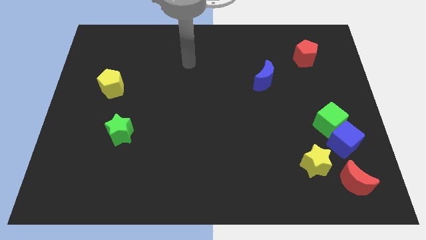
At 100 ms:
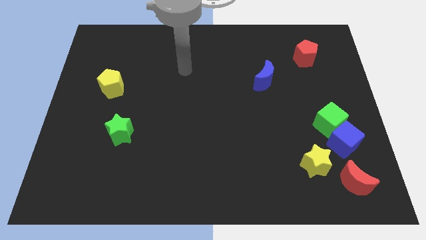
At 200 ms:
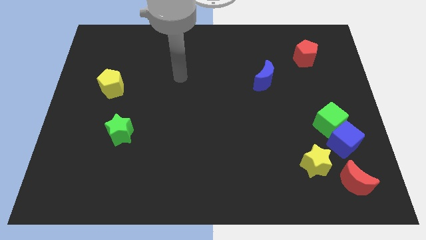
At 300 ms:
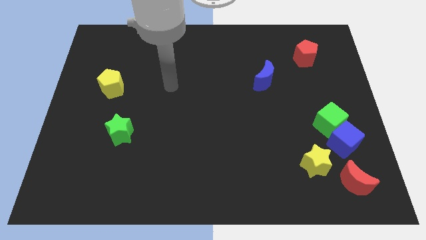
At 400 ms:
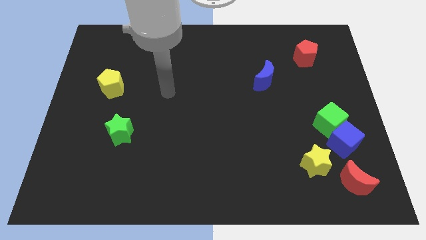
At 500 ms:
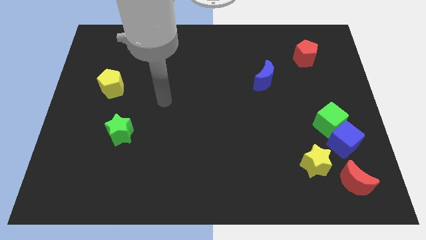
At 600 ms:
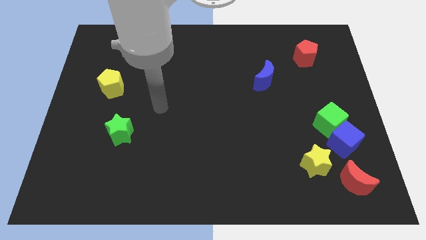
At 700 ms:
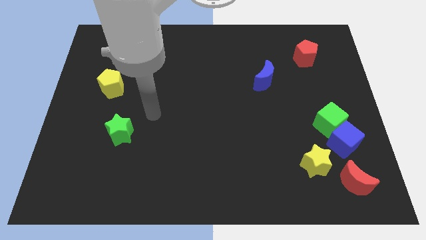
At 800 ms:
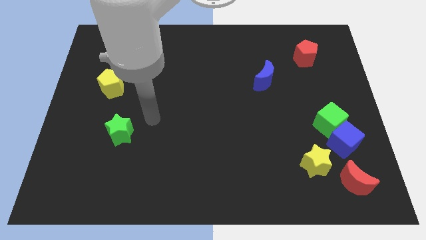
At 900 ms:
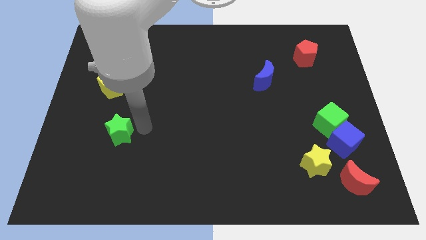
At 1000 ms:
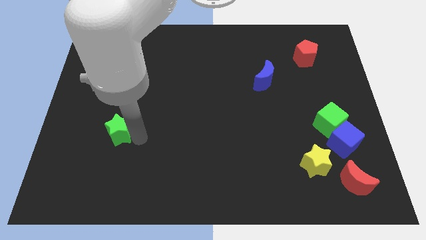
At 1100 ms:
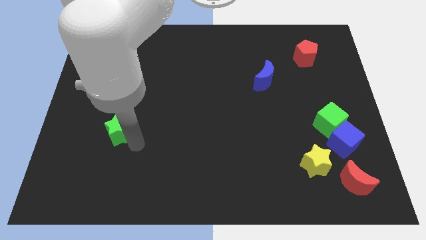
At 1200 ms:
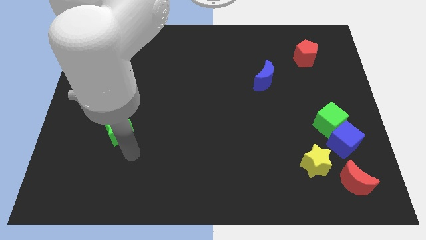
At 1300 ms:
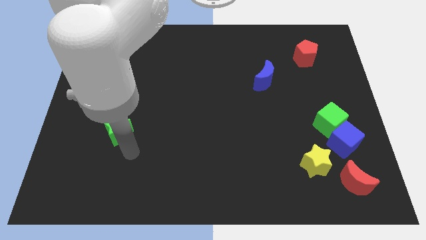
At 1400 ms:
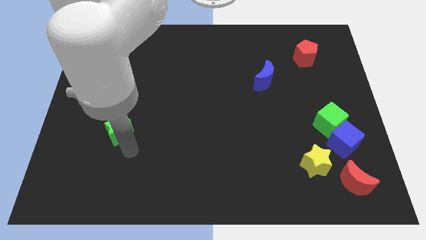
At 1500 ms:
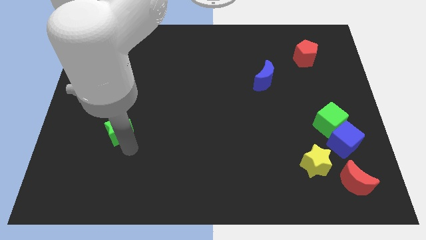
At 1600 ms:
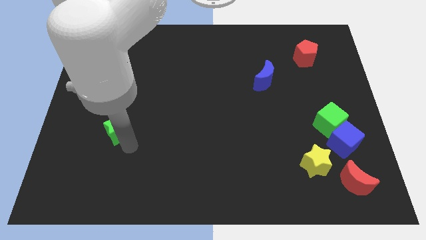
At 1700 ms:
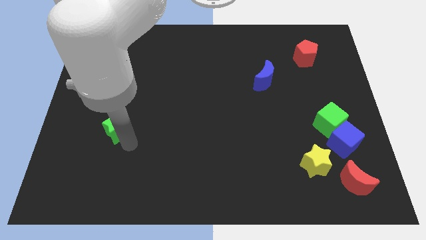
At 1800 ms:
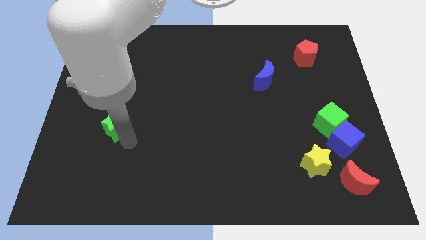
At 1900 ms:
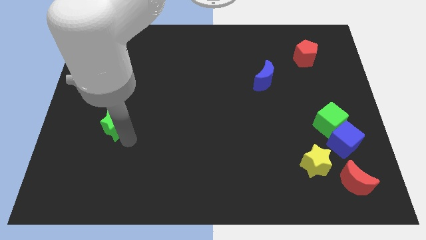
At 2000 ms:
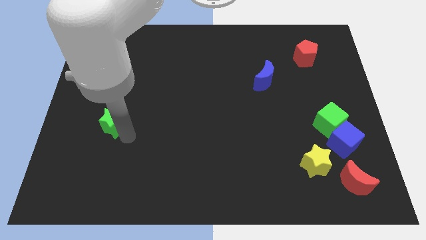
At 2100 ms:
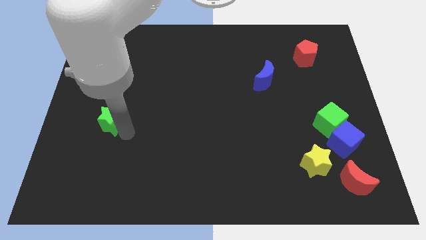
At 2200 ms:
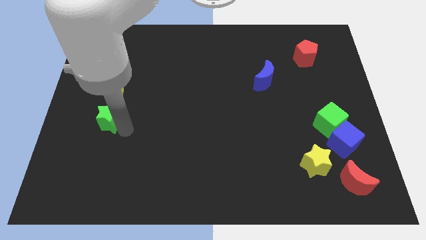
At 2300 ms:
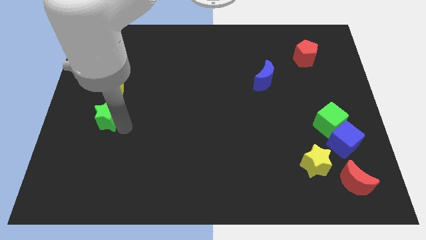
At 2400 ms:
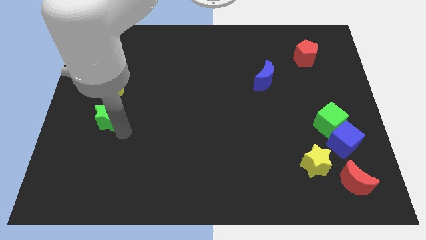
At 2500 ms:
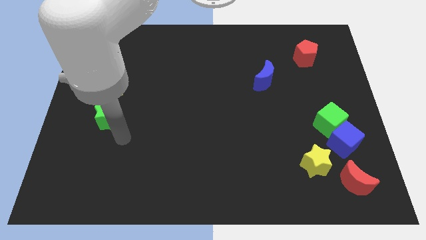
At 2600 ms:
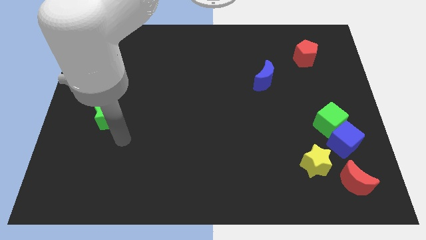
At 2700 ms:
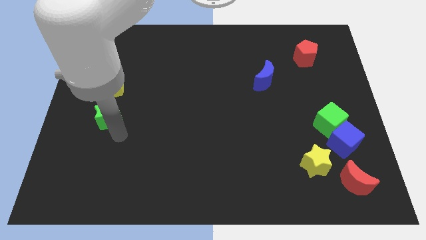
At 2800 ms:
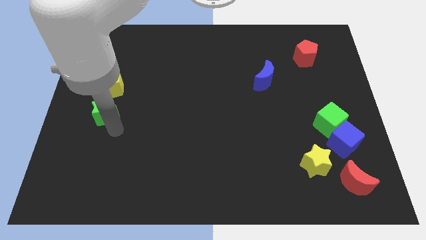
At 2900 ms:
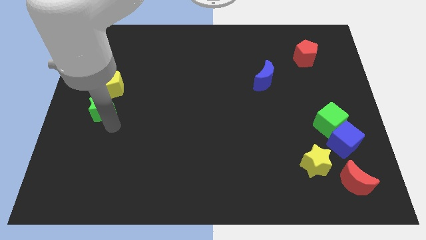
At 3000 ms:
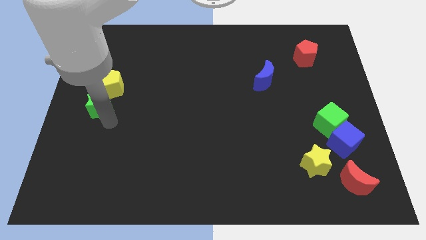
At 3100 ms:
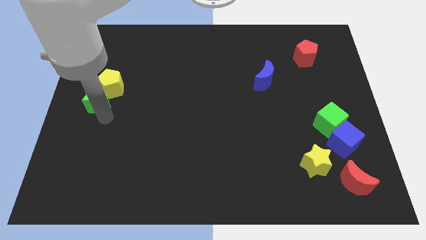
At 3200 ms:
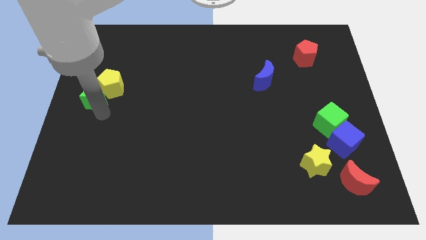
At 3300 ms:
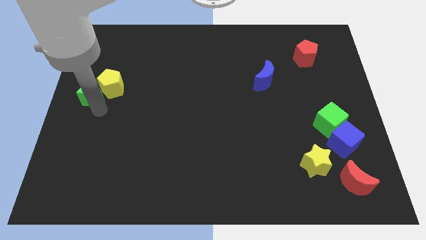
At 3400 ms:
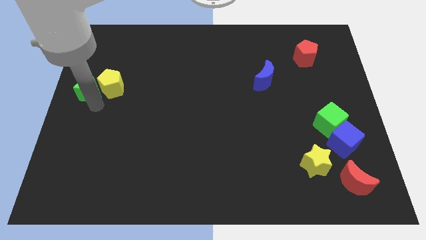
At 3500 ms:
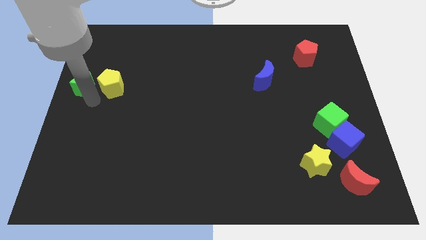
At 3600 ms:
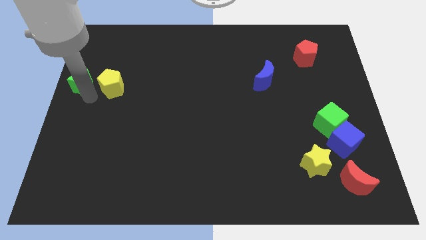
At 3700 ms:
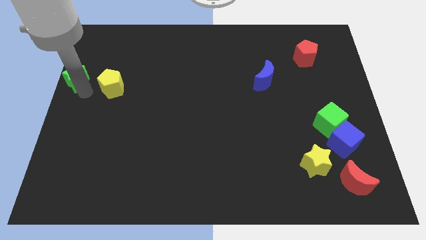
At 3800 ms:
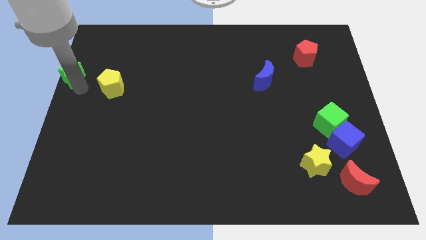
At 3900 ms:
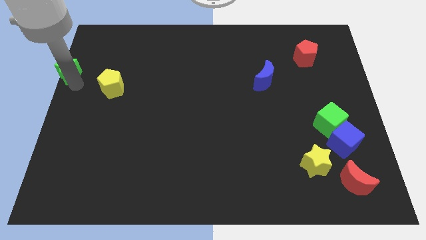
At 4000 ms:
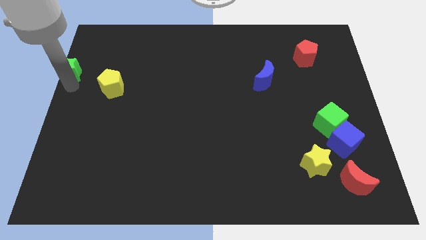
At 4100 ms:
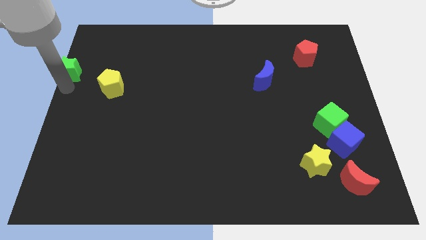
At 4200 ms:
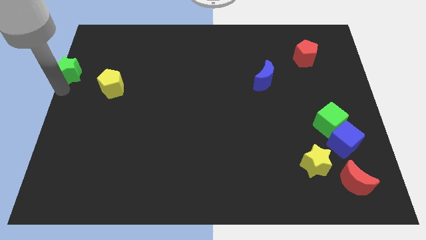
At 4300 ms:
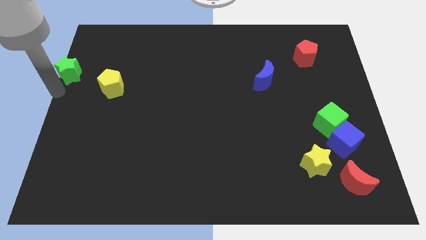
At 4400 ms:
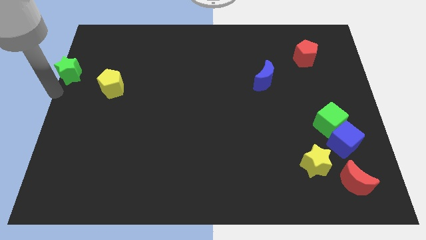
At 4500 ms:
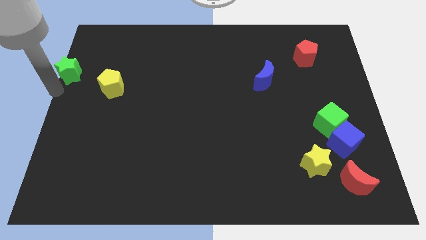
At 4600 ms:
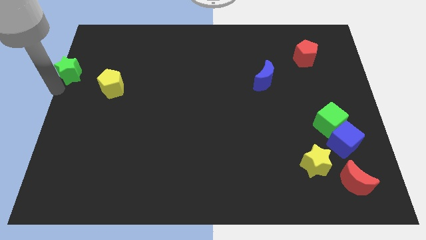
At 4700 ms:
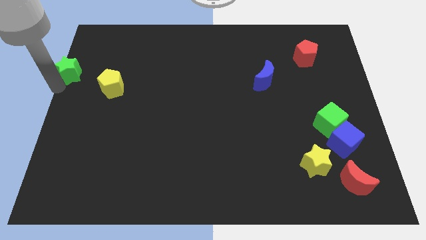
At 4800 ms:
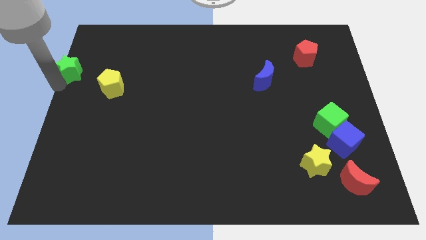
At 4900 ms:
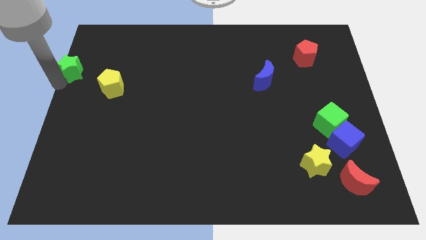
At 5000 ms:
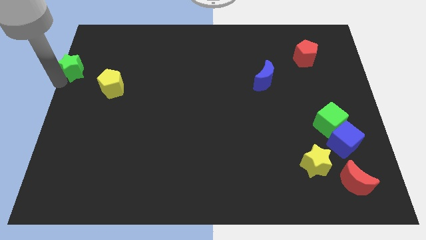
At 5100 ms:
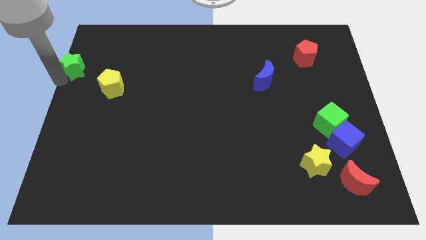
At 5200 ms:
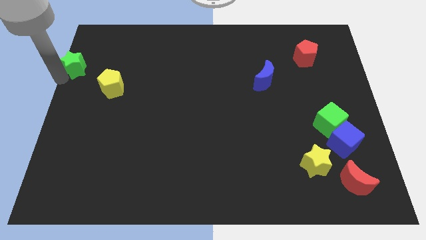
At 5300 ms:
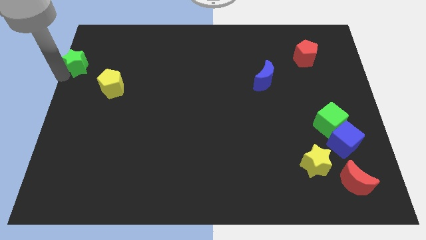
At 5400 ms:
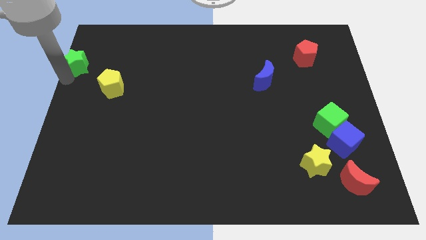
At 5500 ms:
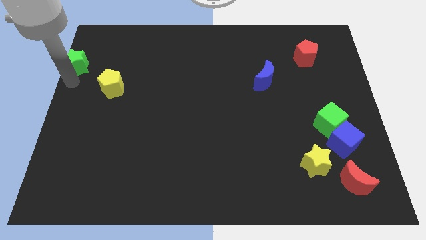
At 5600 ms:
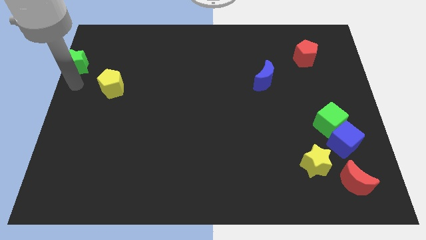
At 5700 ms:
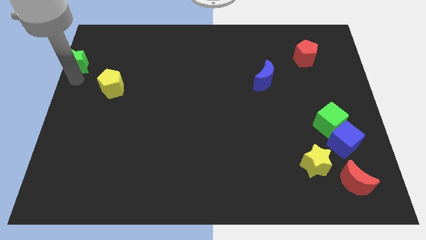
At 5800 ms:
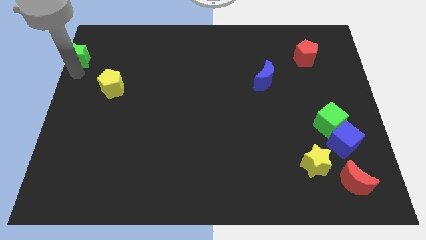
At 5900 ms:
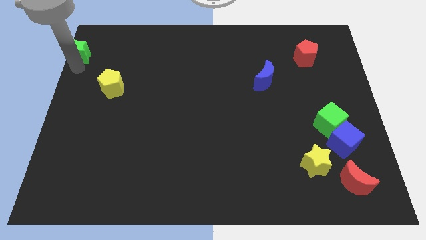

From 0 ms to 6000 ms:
move the green star to the top left of the board
